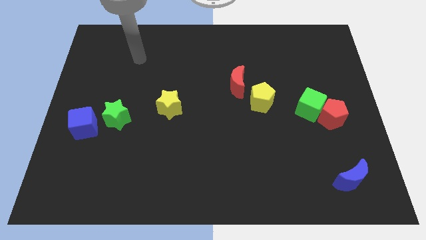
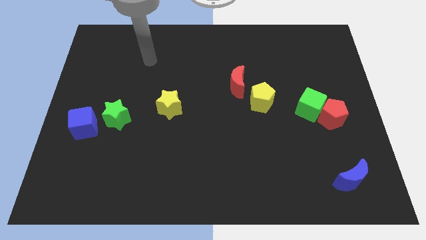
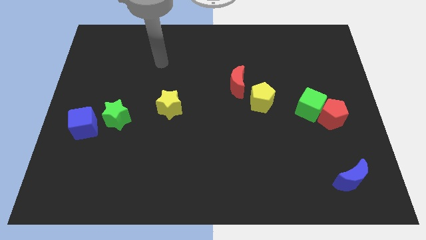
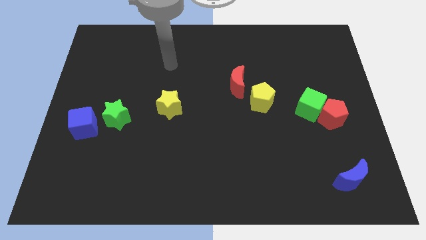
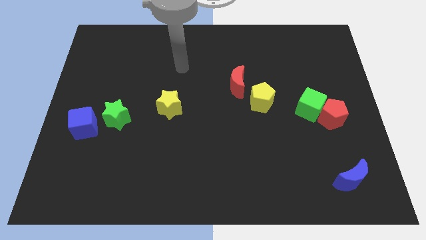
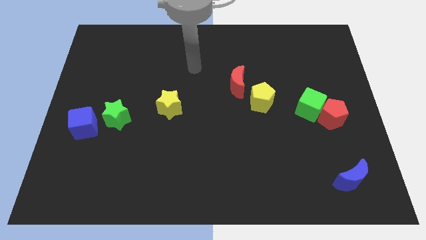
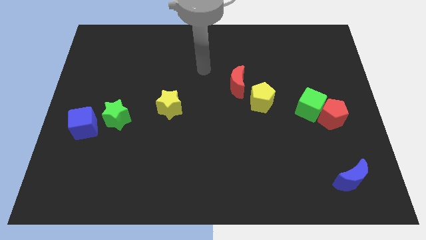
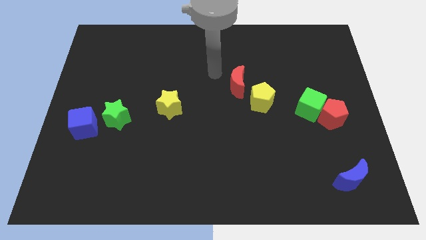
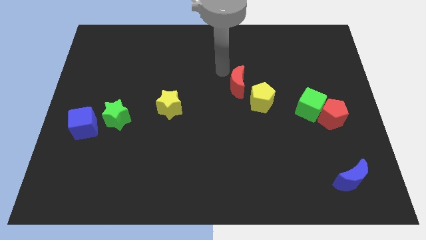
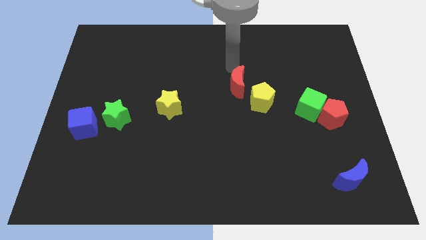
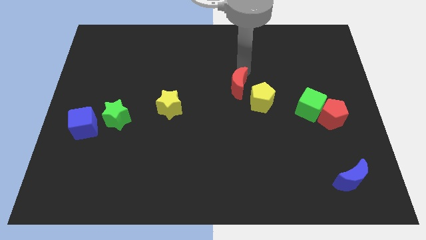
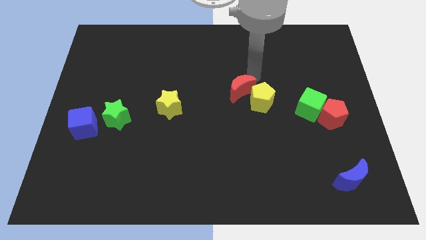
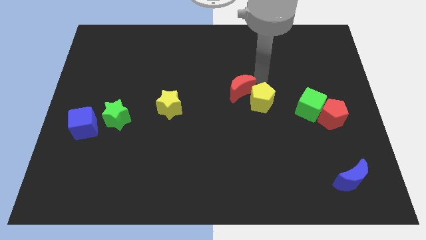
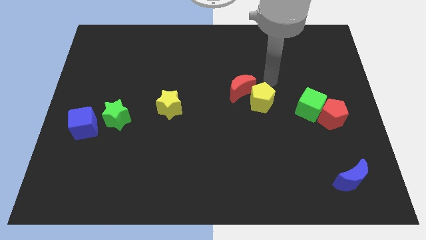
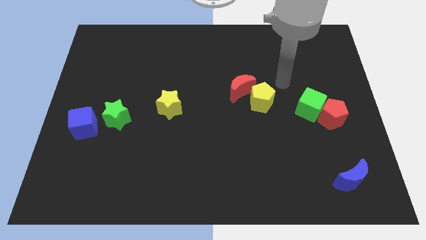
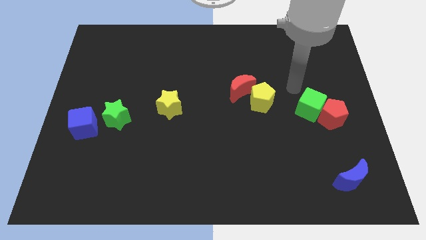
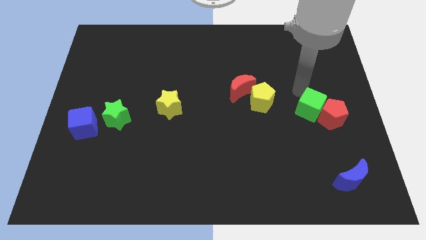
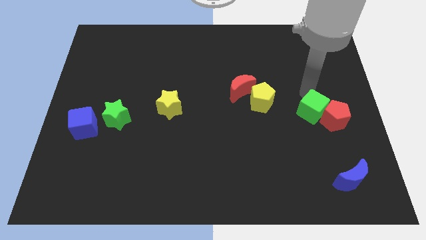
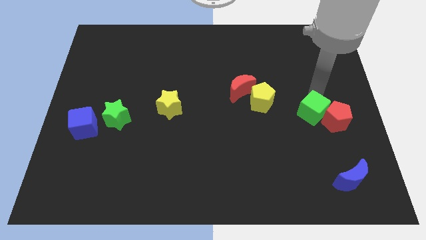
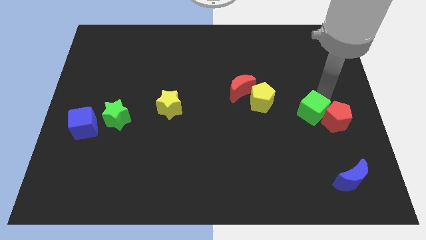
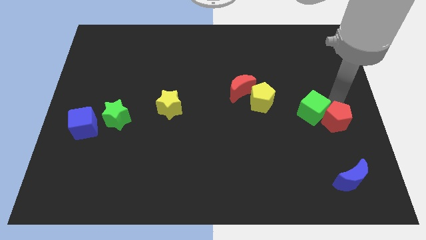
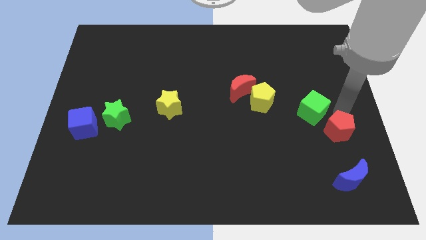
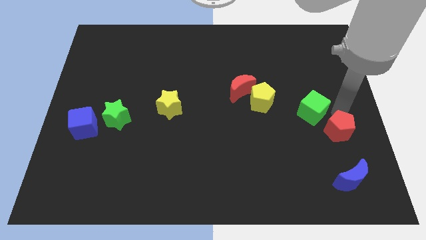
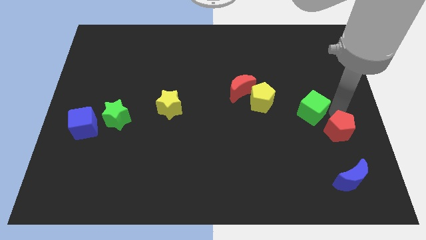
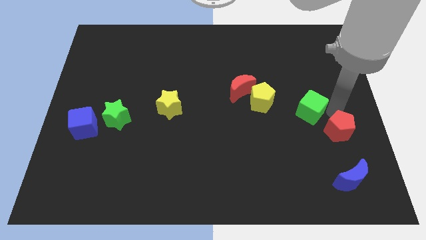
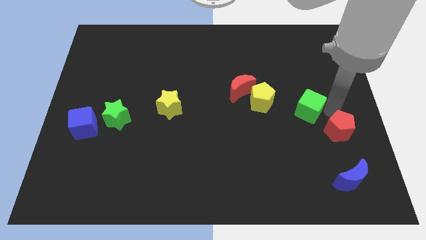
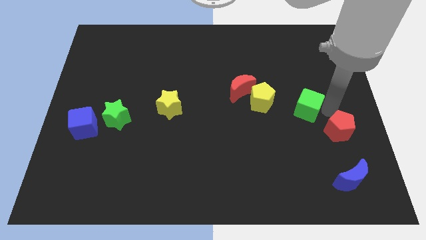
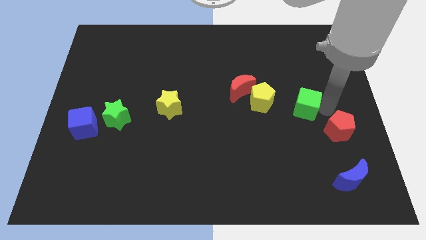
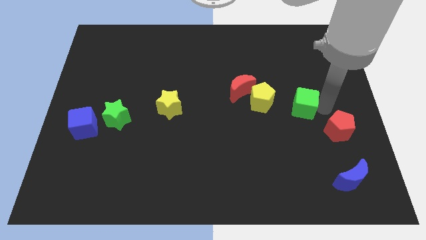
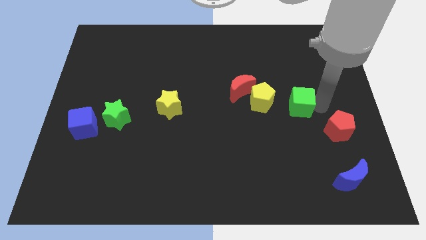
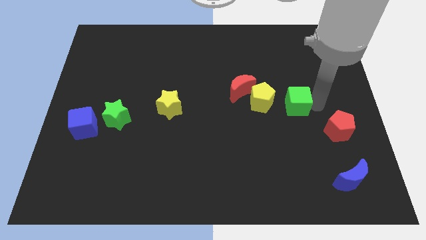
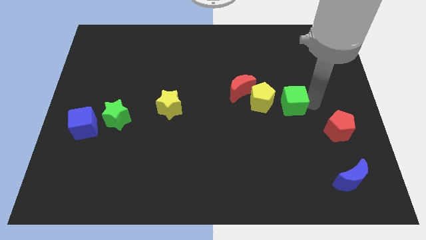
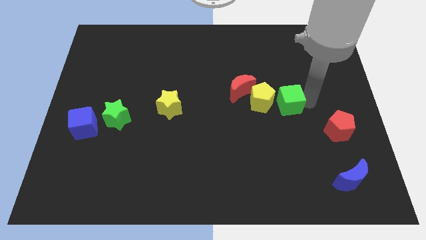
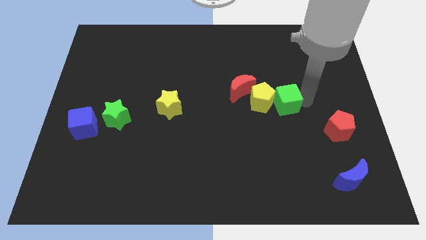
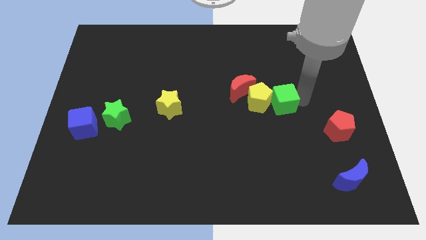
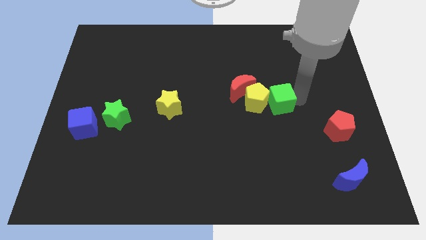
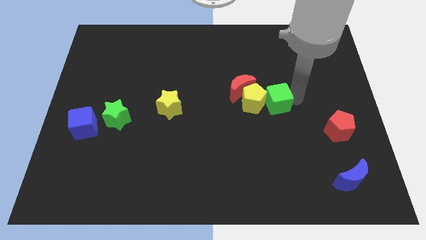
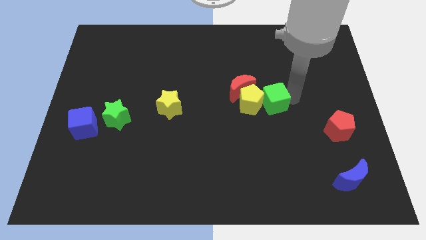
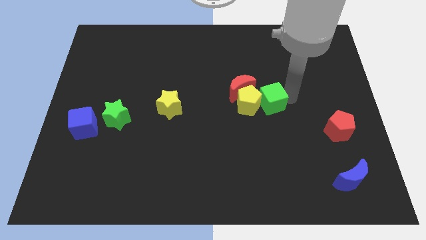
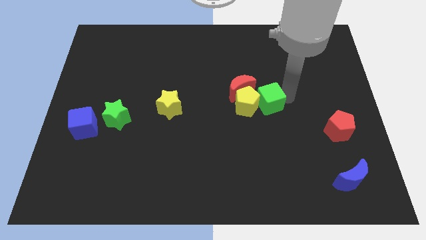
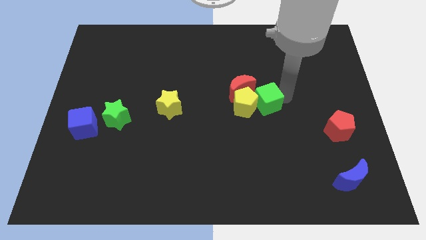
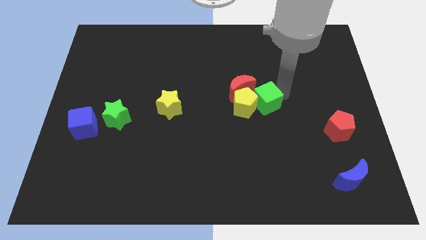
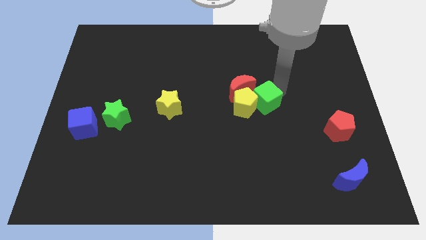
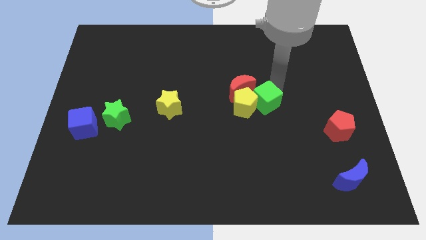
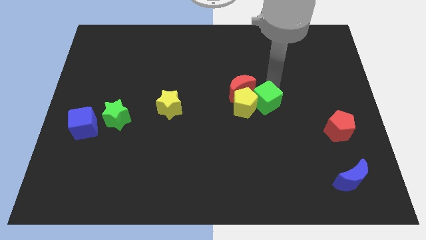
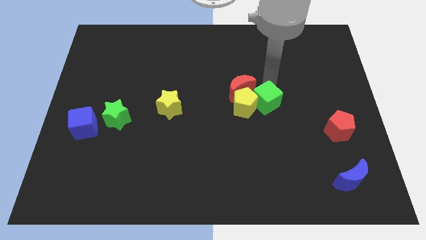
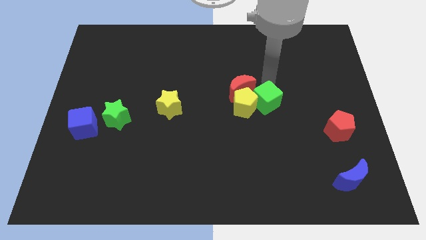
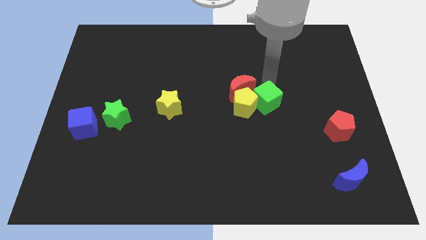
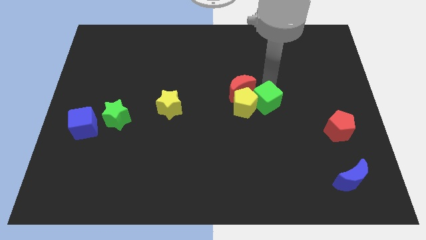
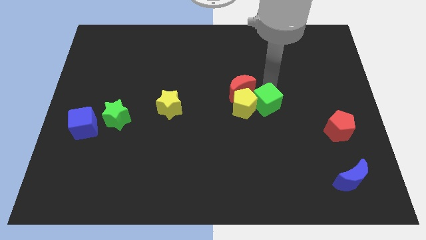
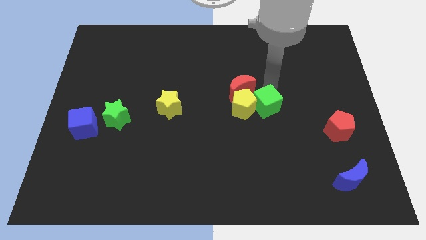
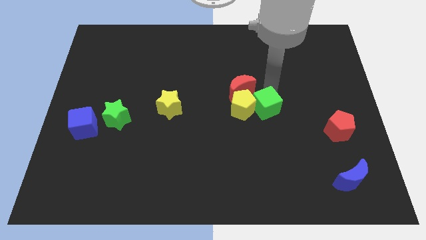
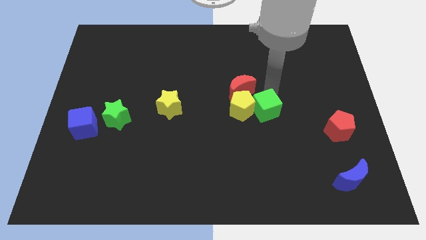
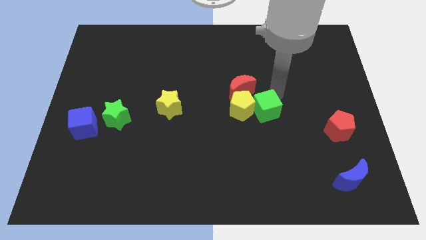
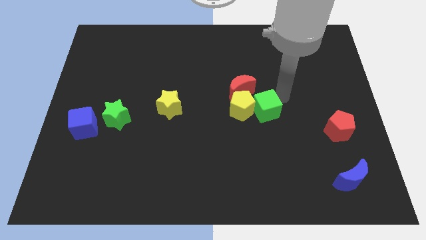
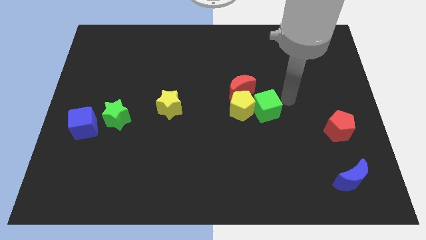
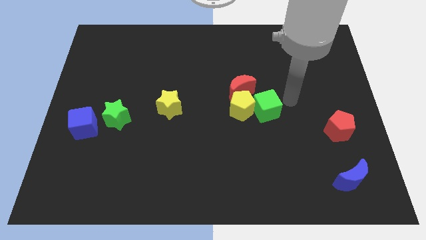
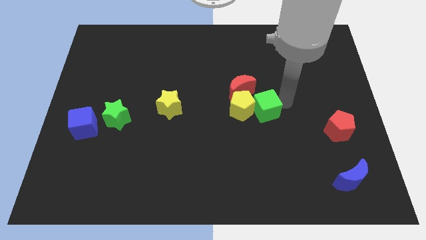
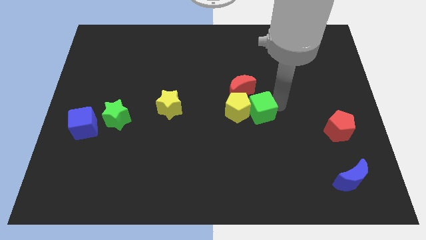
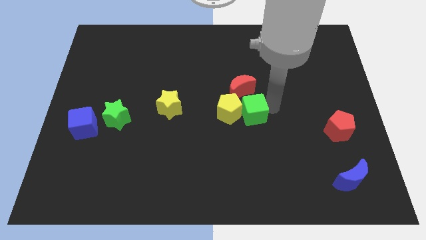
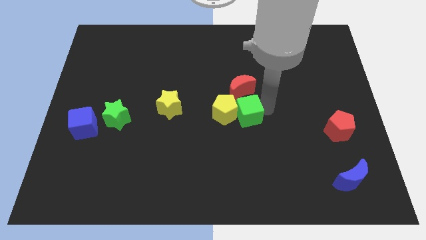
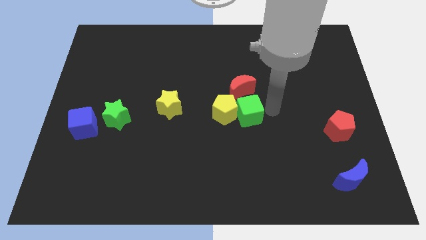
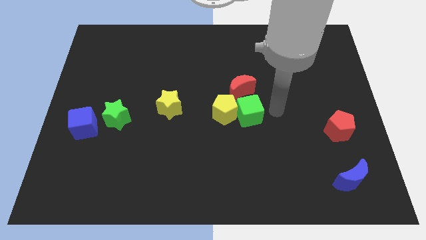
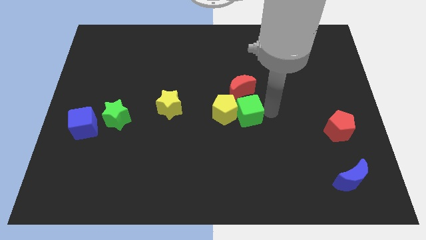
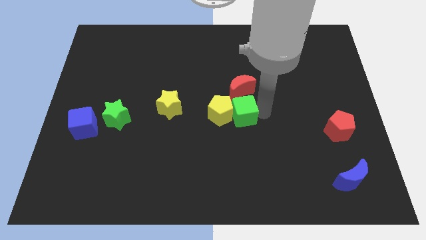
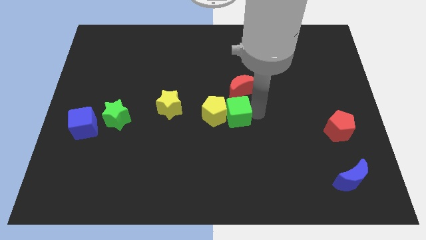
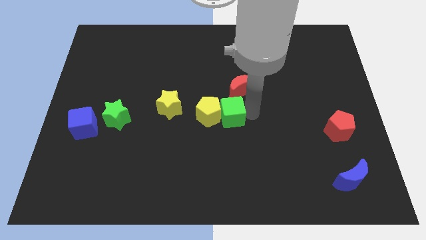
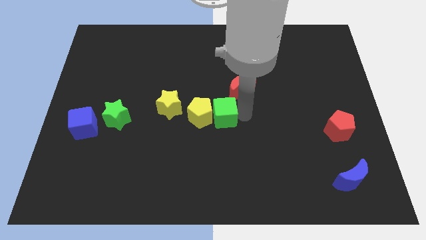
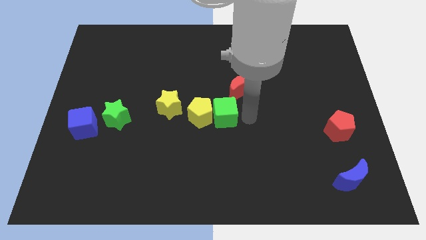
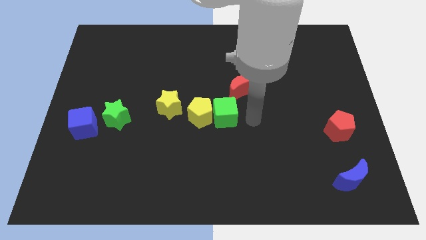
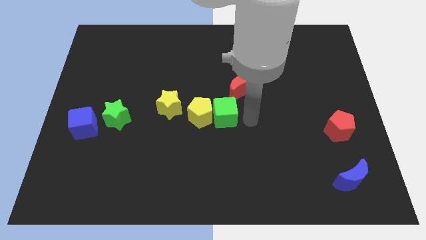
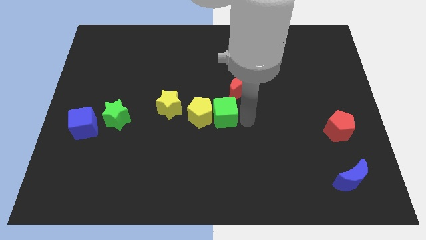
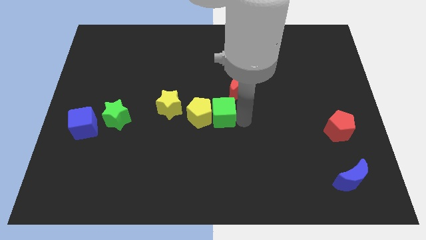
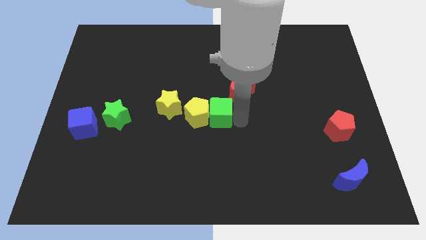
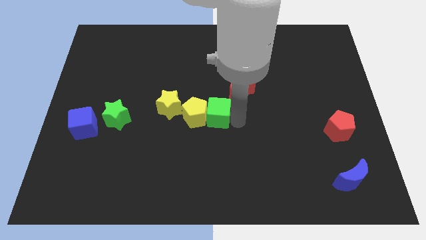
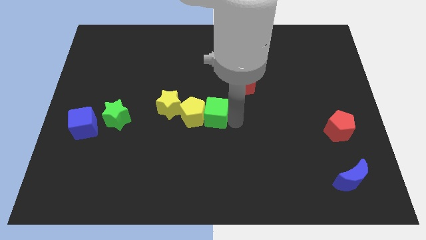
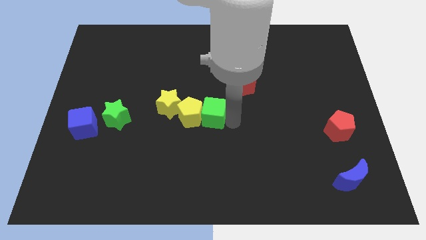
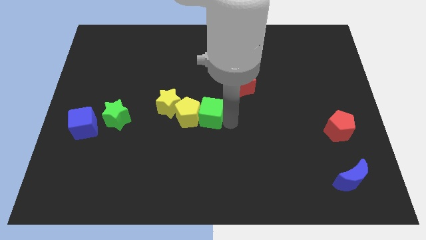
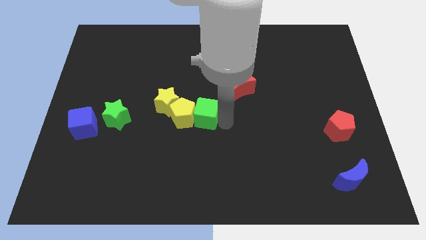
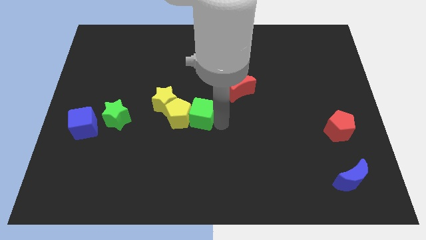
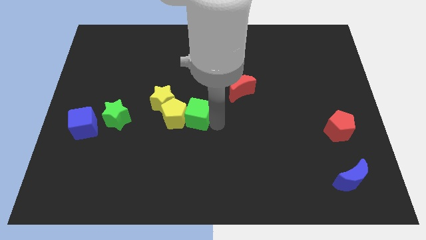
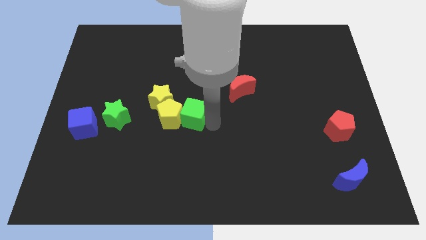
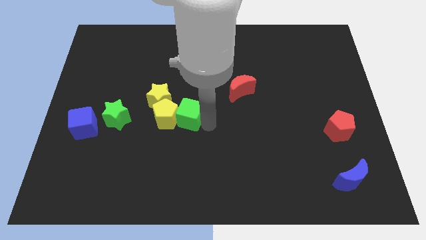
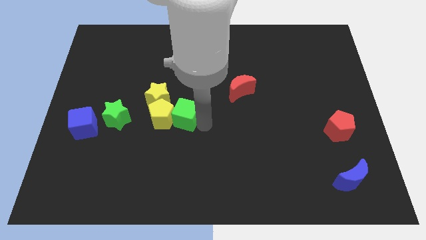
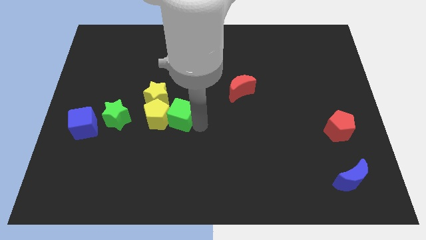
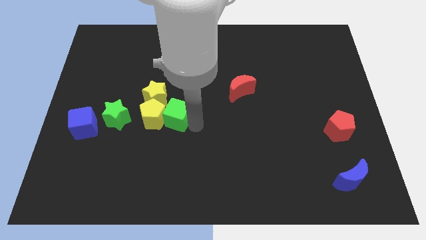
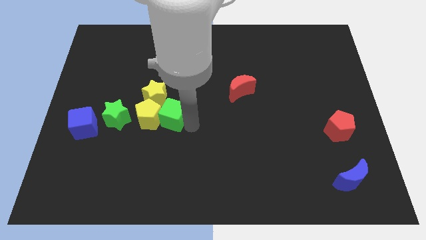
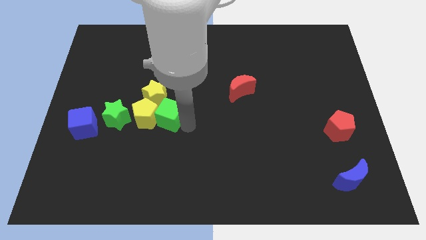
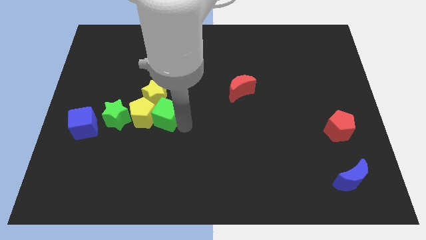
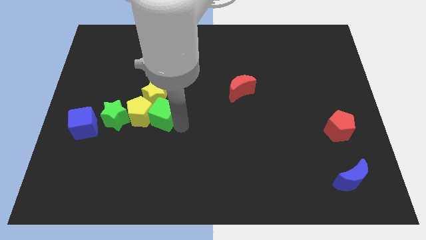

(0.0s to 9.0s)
put the green cube next to the yellow star
